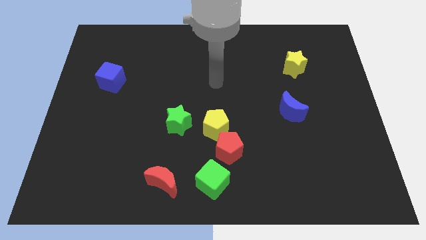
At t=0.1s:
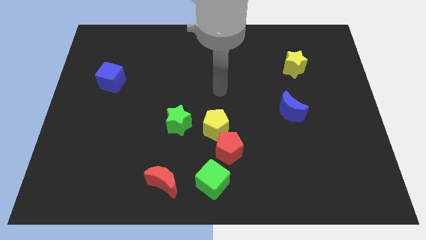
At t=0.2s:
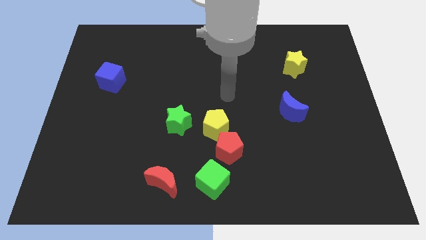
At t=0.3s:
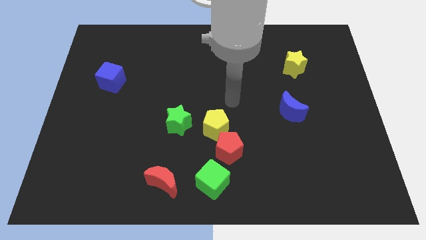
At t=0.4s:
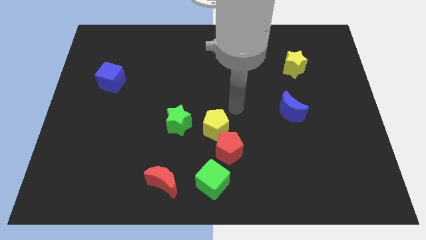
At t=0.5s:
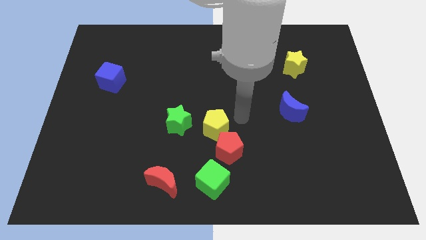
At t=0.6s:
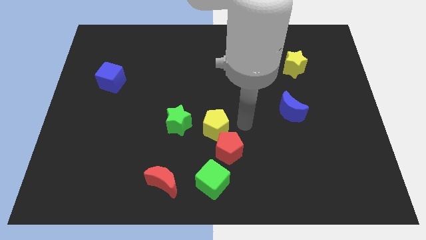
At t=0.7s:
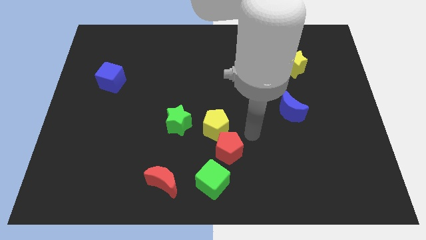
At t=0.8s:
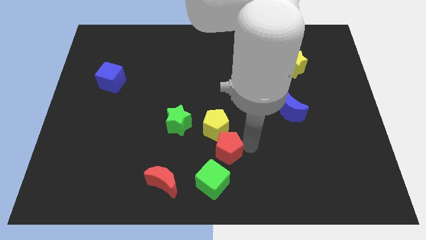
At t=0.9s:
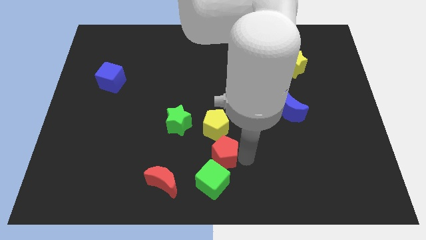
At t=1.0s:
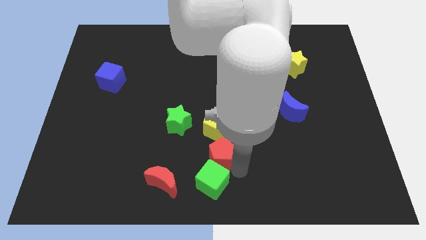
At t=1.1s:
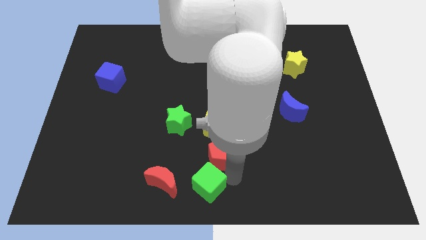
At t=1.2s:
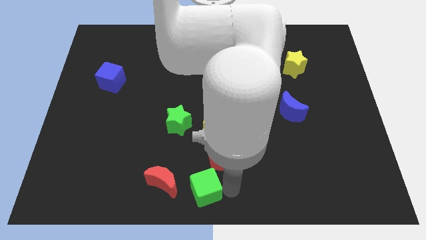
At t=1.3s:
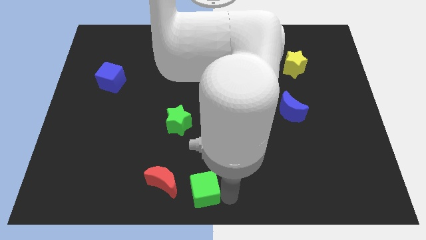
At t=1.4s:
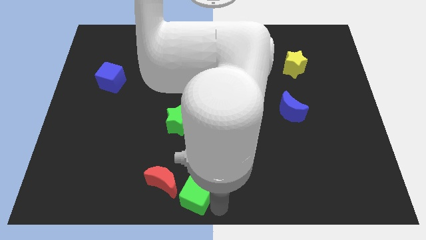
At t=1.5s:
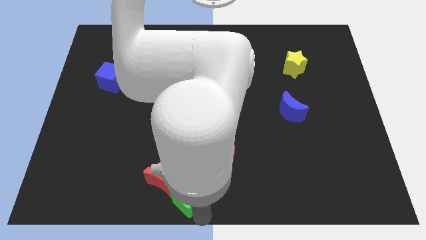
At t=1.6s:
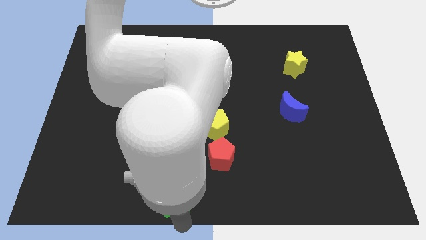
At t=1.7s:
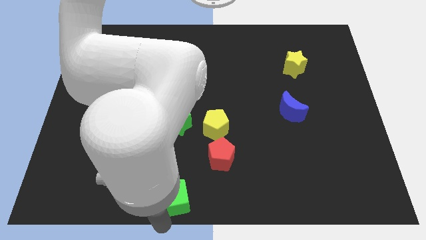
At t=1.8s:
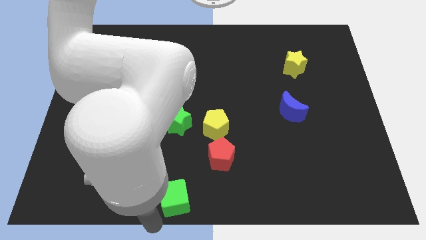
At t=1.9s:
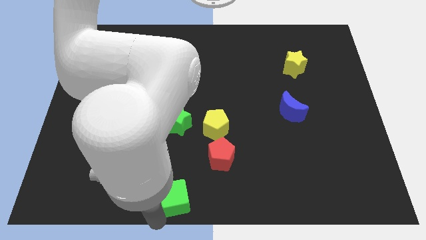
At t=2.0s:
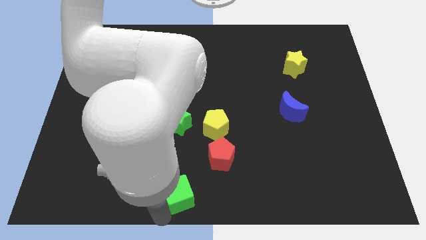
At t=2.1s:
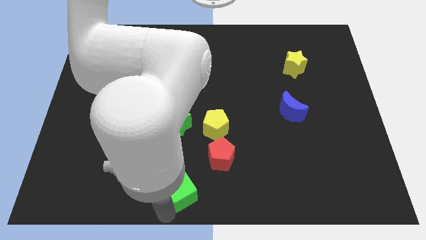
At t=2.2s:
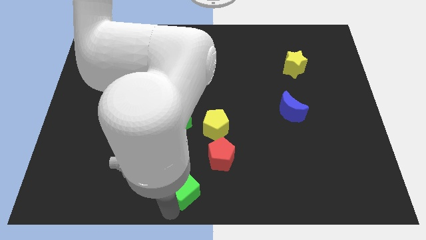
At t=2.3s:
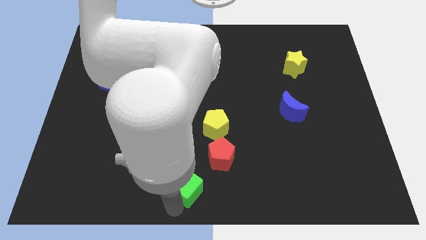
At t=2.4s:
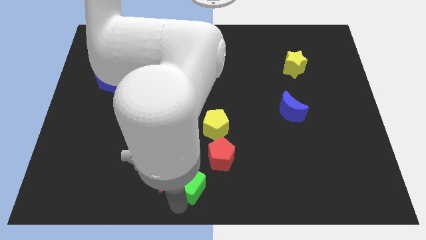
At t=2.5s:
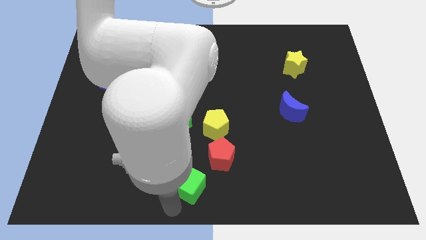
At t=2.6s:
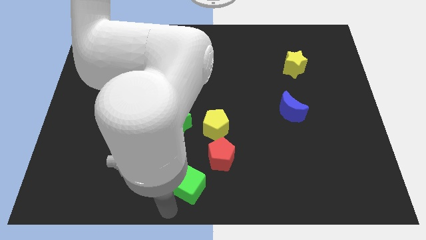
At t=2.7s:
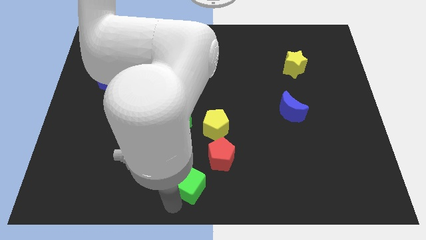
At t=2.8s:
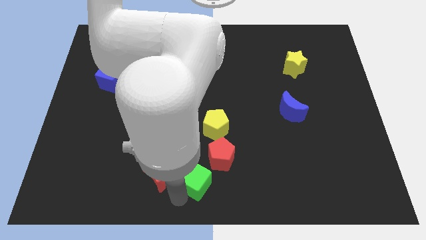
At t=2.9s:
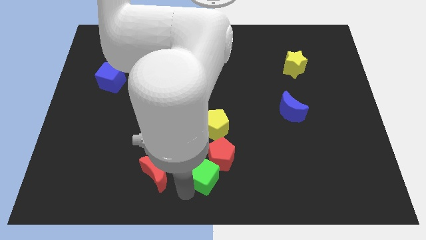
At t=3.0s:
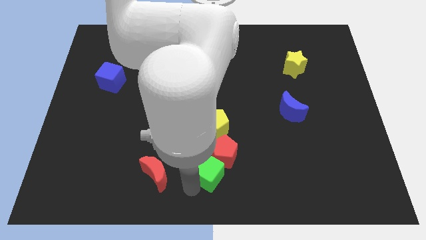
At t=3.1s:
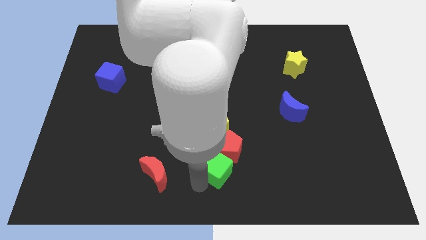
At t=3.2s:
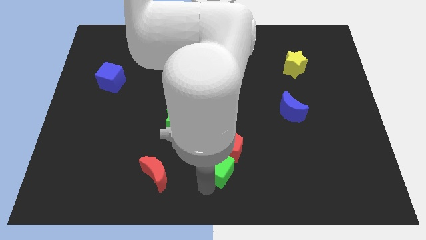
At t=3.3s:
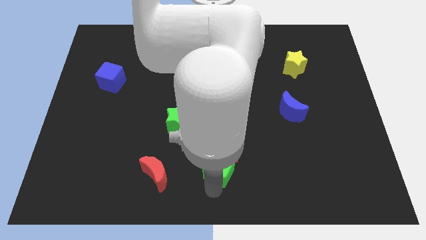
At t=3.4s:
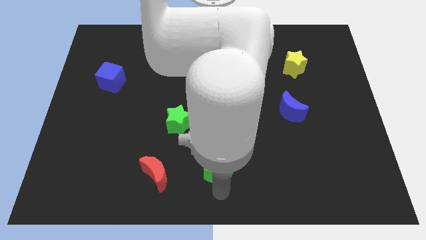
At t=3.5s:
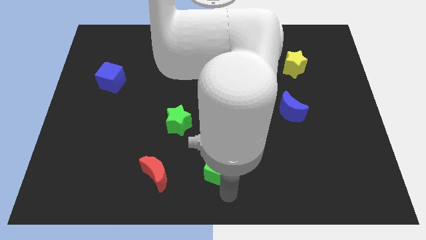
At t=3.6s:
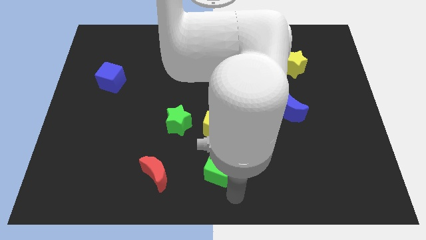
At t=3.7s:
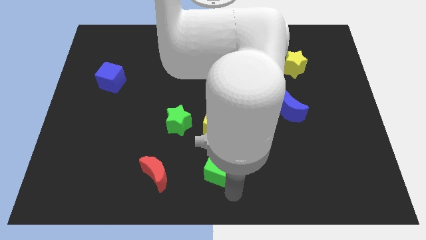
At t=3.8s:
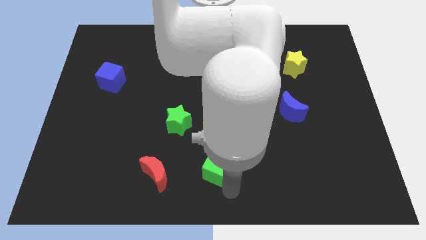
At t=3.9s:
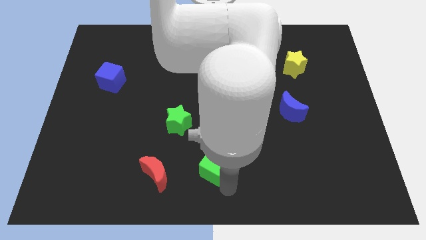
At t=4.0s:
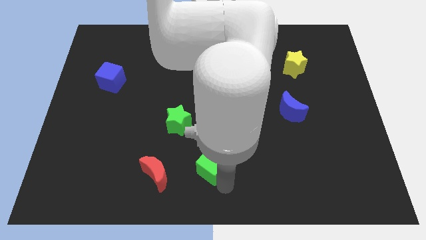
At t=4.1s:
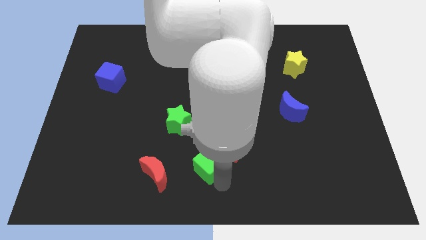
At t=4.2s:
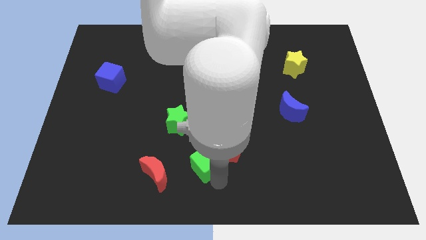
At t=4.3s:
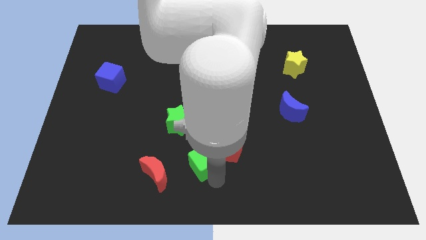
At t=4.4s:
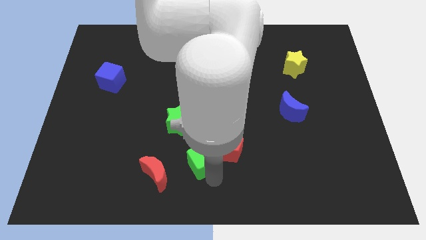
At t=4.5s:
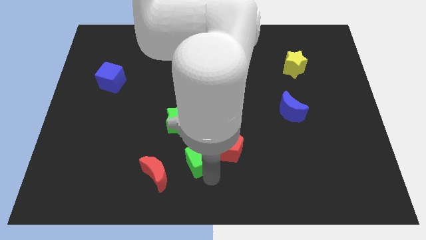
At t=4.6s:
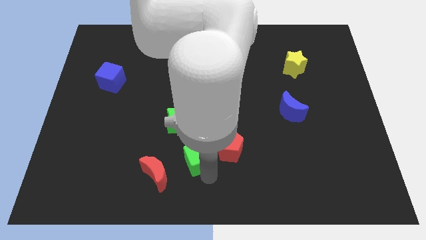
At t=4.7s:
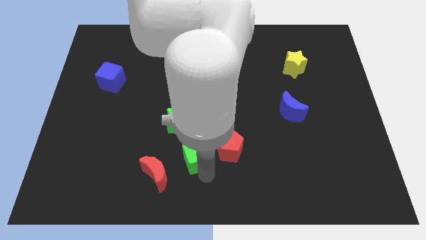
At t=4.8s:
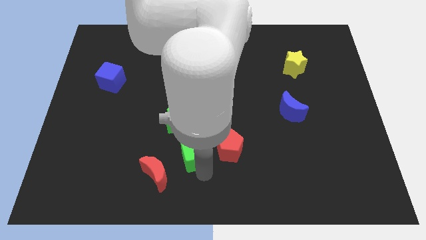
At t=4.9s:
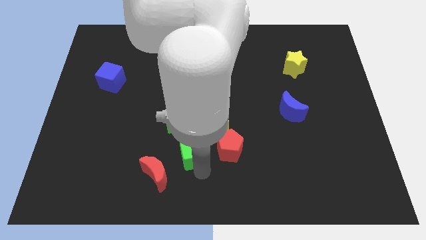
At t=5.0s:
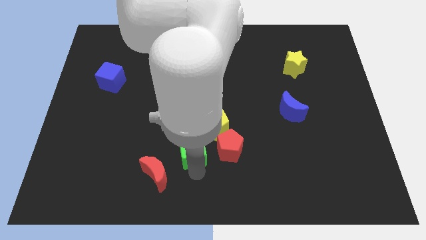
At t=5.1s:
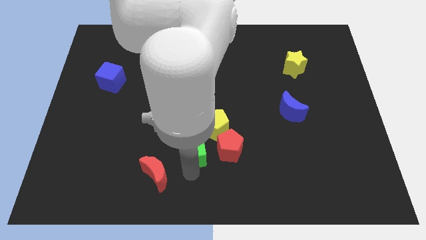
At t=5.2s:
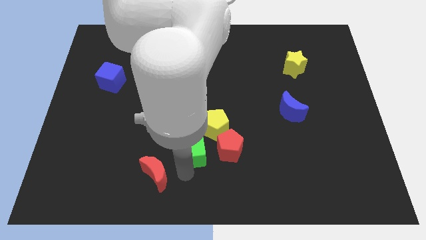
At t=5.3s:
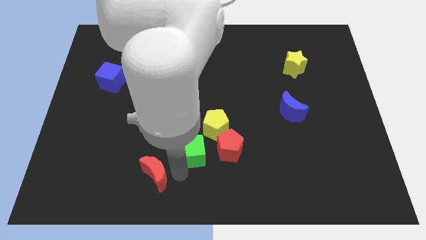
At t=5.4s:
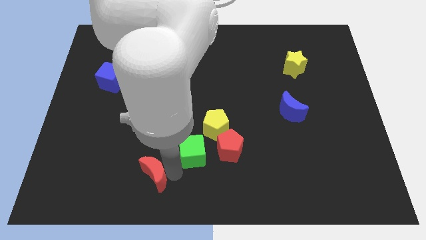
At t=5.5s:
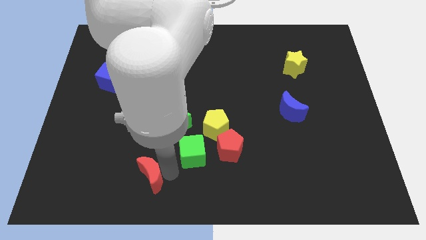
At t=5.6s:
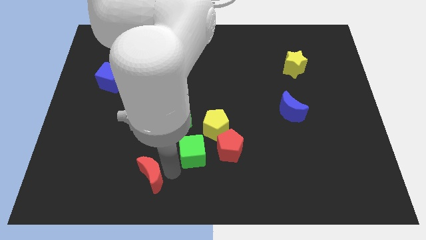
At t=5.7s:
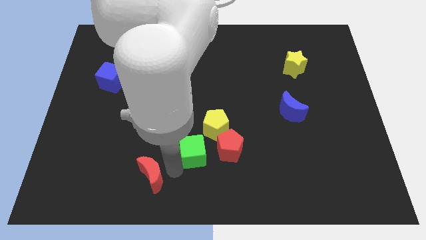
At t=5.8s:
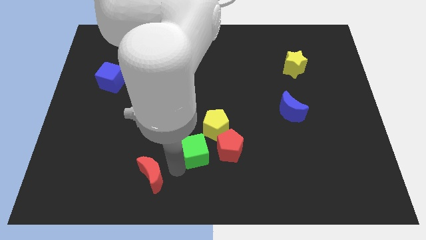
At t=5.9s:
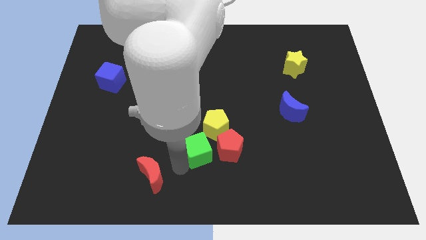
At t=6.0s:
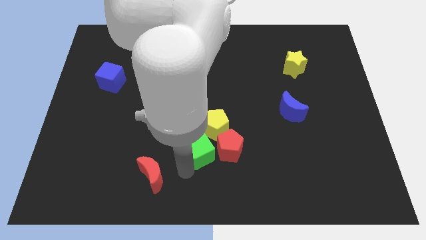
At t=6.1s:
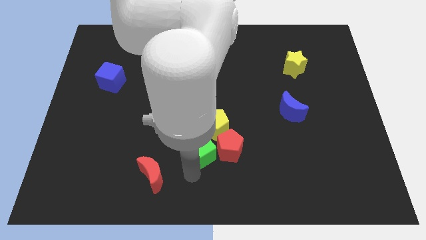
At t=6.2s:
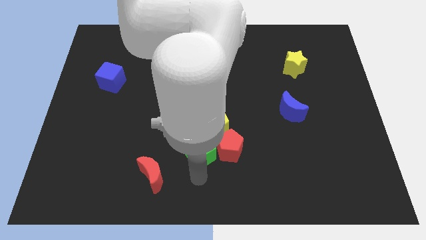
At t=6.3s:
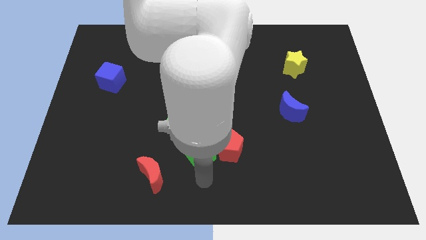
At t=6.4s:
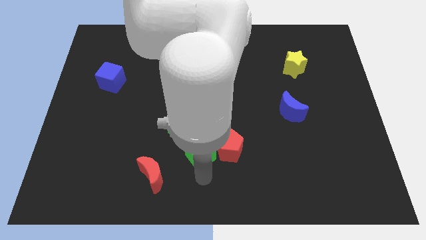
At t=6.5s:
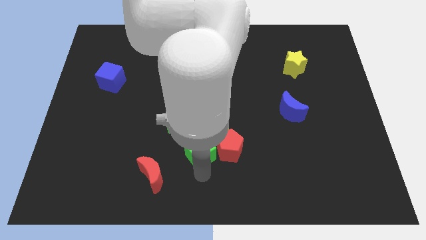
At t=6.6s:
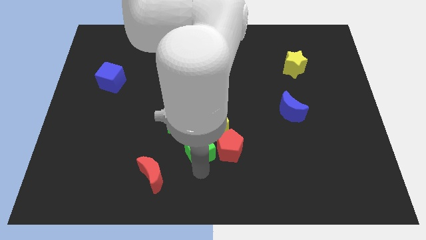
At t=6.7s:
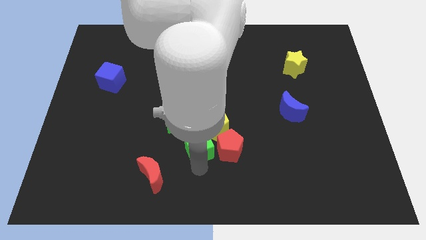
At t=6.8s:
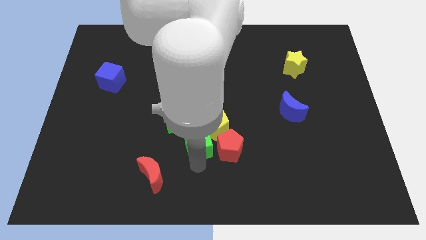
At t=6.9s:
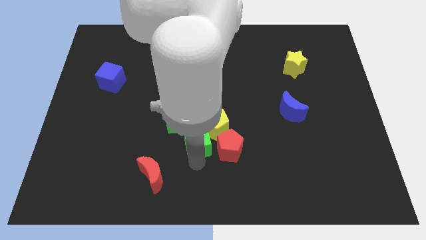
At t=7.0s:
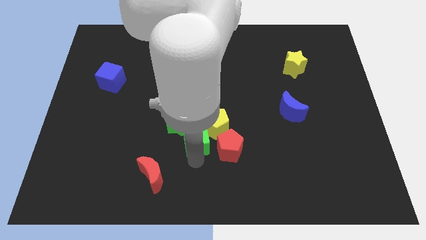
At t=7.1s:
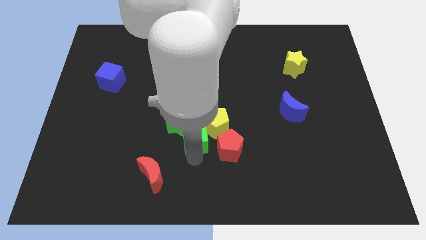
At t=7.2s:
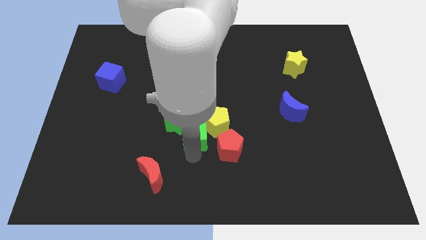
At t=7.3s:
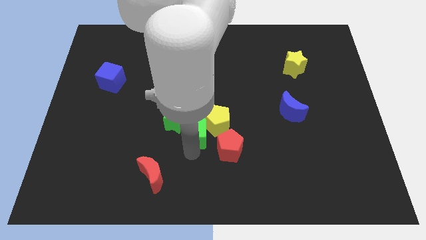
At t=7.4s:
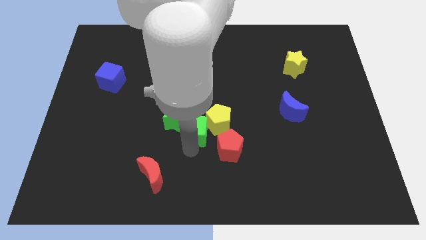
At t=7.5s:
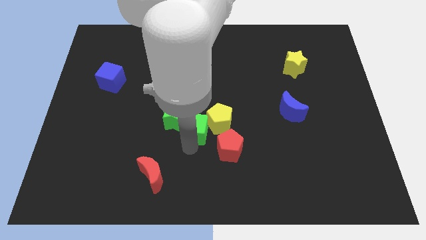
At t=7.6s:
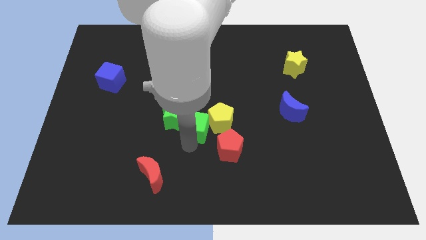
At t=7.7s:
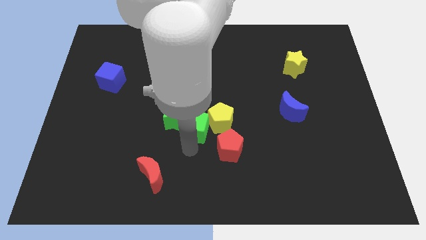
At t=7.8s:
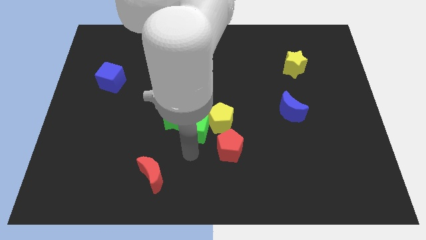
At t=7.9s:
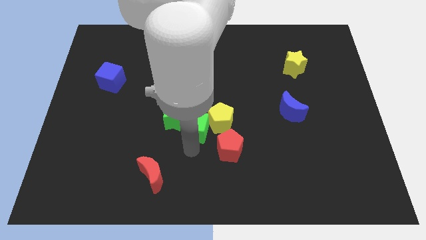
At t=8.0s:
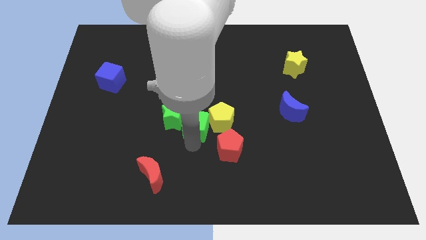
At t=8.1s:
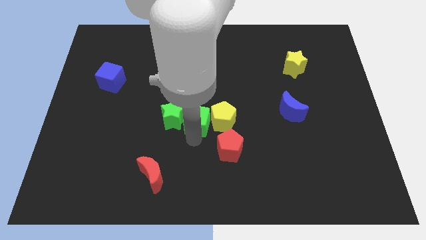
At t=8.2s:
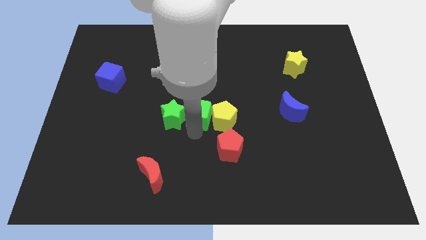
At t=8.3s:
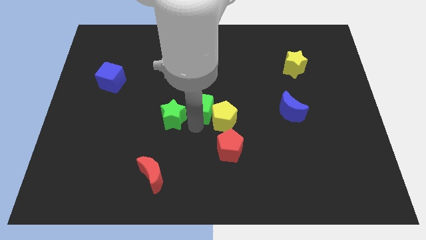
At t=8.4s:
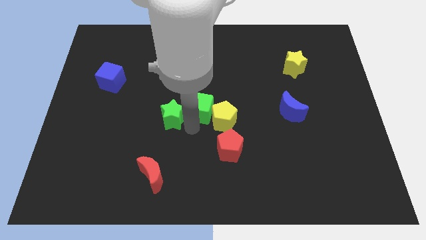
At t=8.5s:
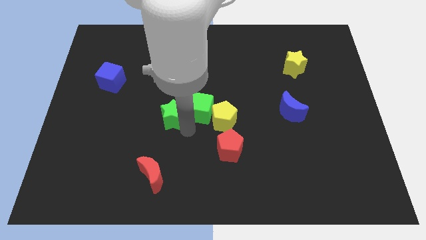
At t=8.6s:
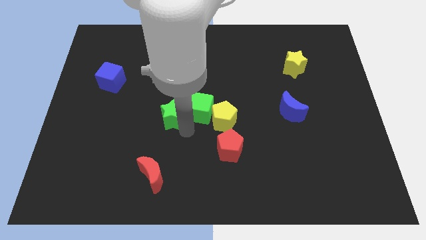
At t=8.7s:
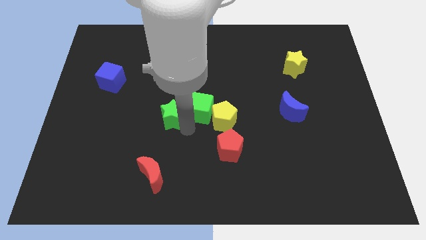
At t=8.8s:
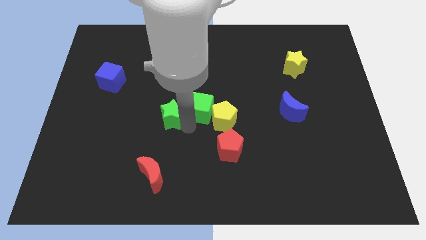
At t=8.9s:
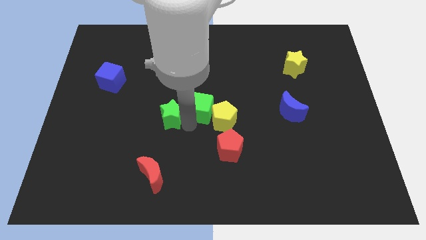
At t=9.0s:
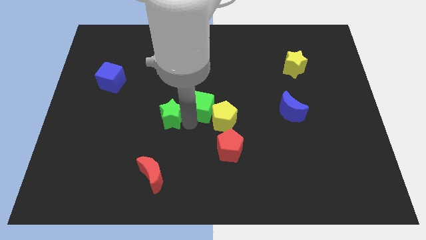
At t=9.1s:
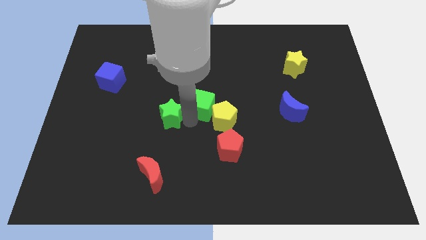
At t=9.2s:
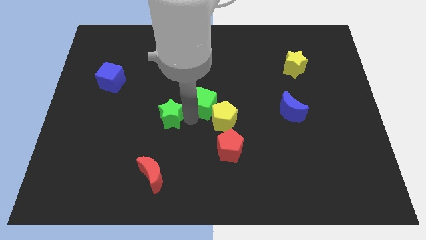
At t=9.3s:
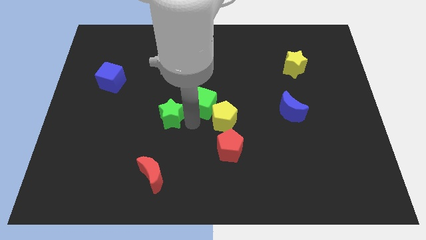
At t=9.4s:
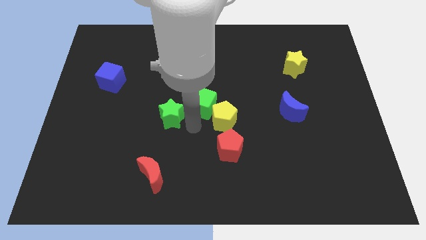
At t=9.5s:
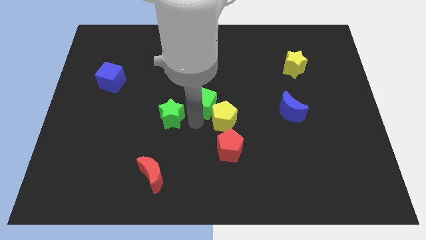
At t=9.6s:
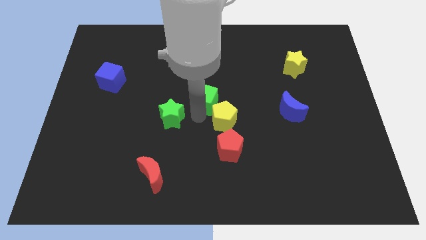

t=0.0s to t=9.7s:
push the green cube up
